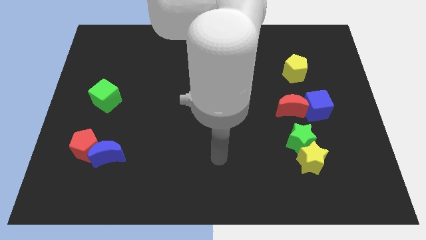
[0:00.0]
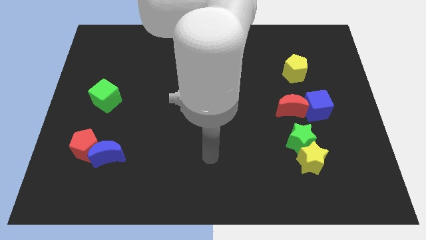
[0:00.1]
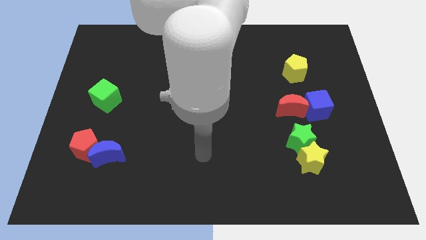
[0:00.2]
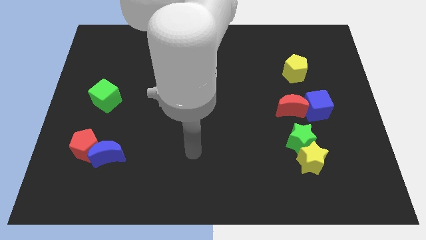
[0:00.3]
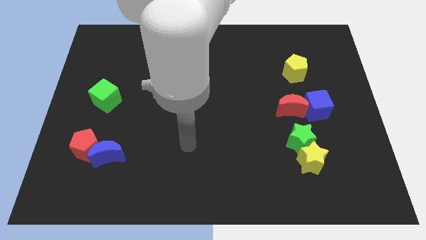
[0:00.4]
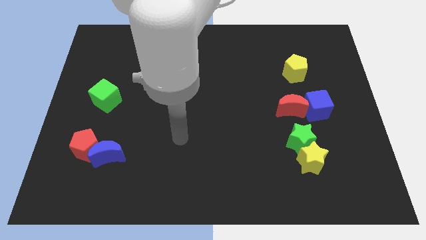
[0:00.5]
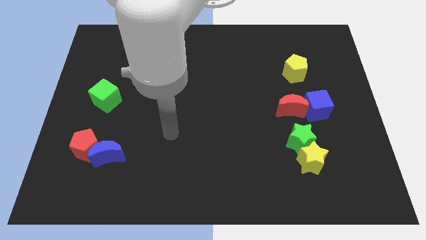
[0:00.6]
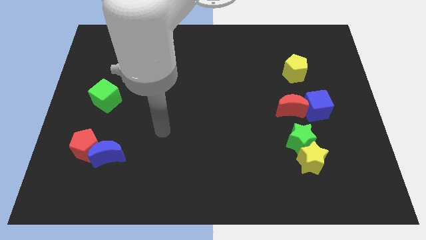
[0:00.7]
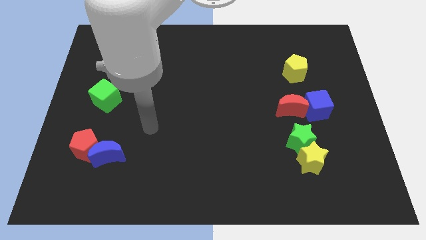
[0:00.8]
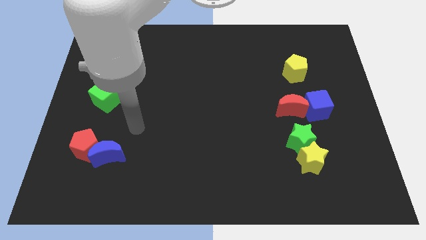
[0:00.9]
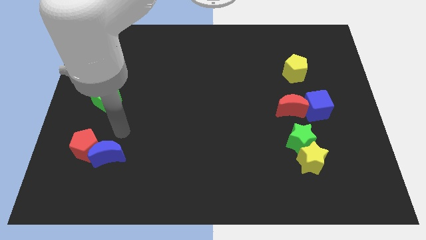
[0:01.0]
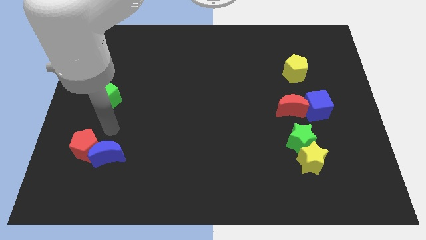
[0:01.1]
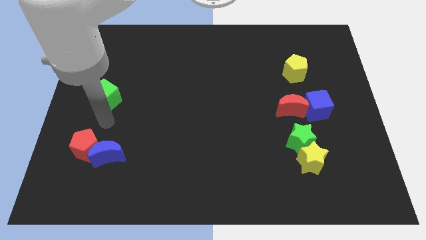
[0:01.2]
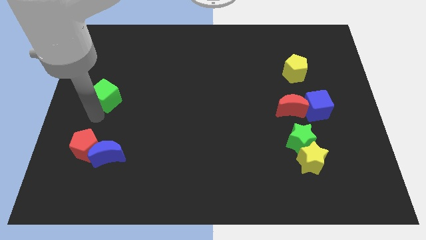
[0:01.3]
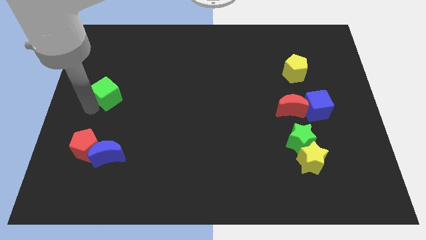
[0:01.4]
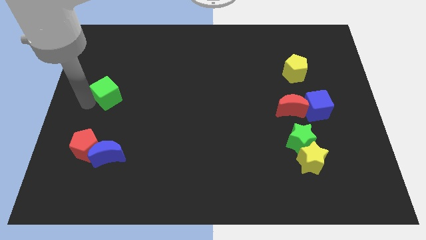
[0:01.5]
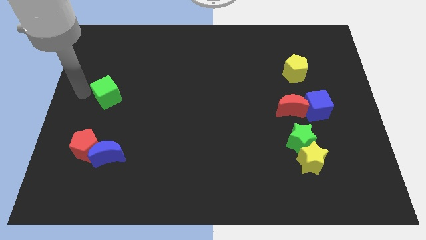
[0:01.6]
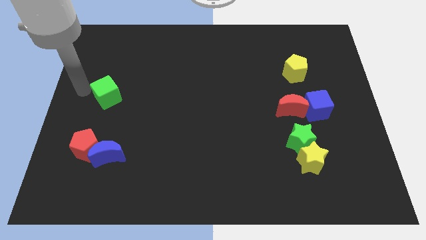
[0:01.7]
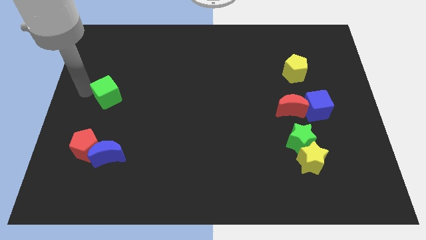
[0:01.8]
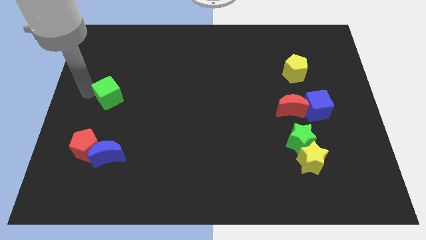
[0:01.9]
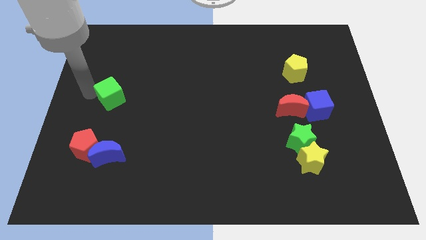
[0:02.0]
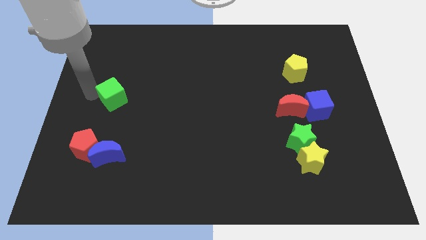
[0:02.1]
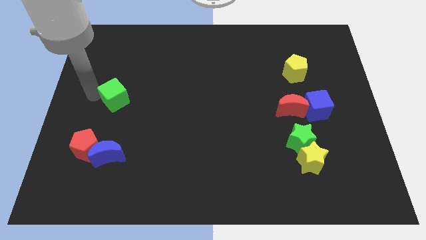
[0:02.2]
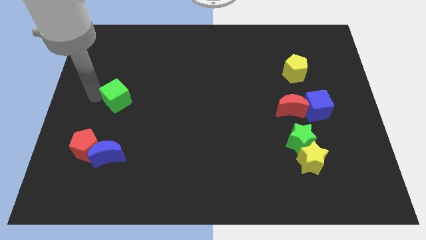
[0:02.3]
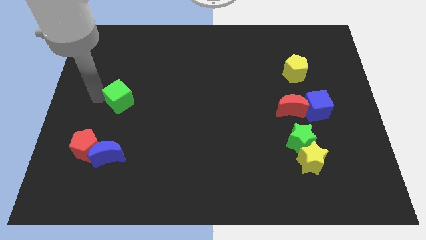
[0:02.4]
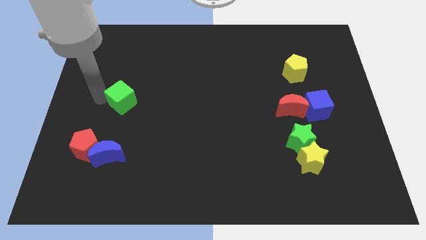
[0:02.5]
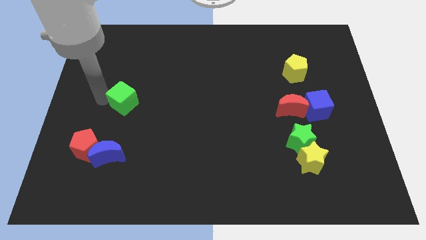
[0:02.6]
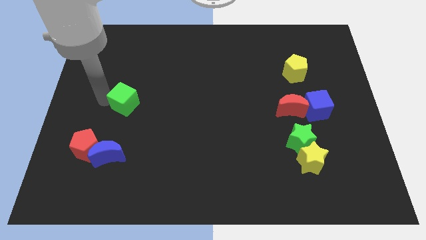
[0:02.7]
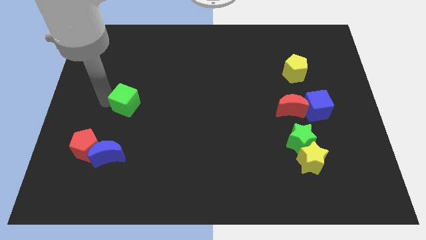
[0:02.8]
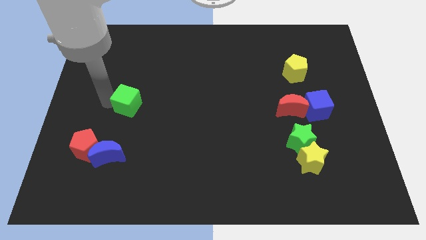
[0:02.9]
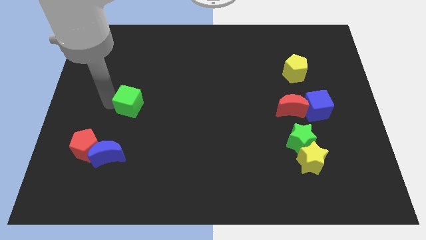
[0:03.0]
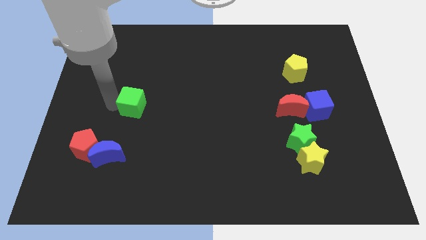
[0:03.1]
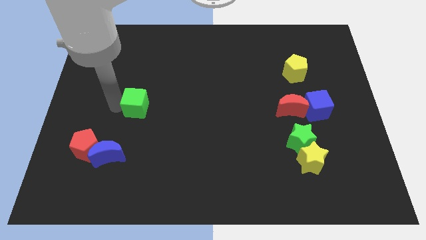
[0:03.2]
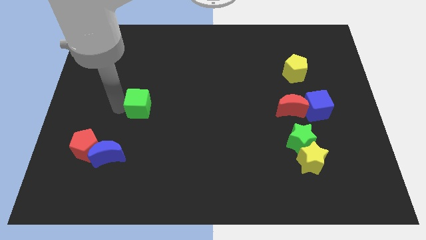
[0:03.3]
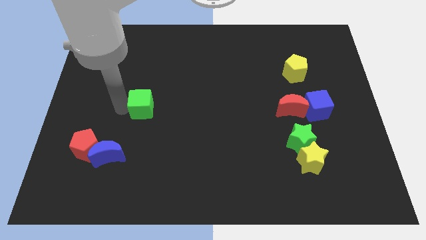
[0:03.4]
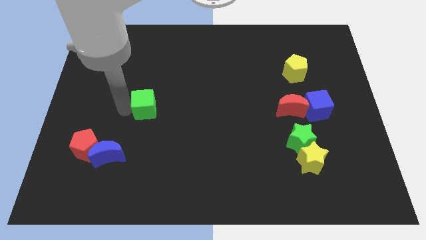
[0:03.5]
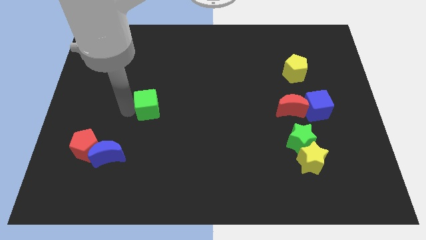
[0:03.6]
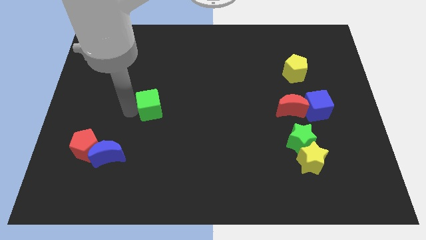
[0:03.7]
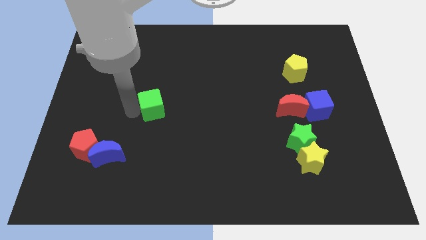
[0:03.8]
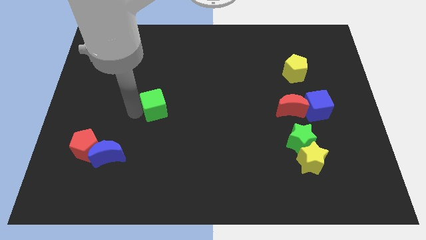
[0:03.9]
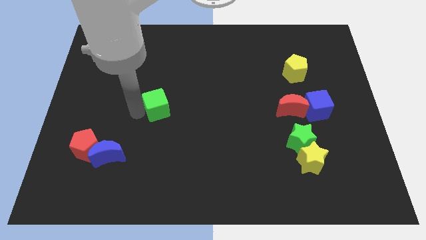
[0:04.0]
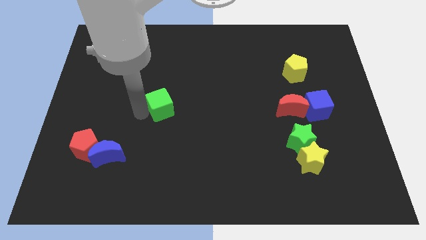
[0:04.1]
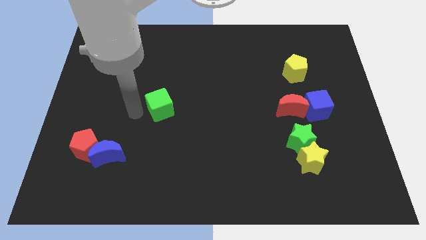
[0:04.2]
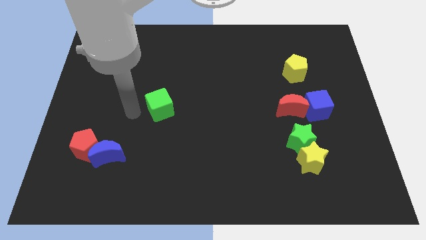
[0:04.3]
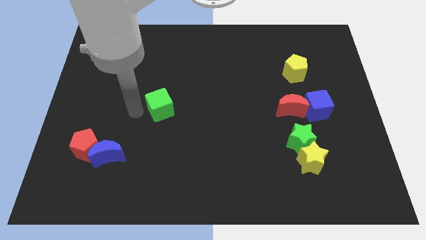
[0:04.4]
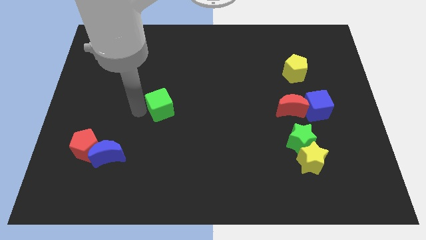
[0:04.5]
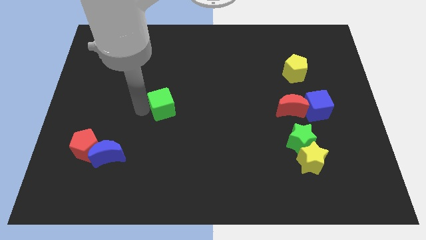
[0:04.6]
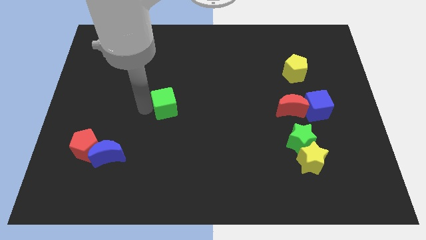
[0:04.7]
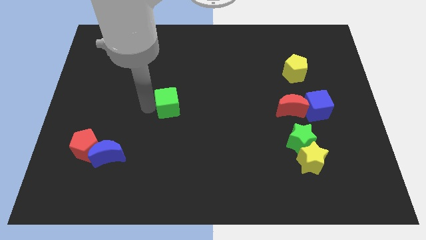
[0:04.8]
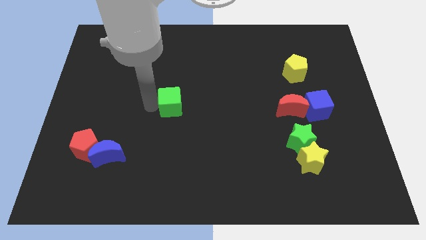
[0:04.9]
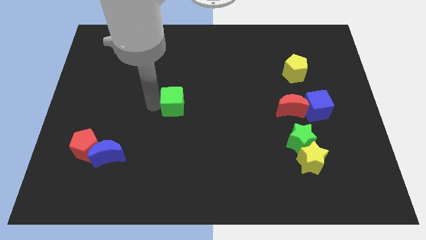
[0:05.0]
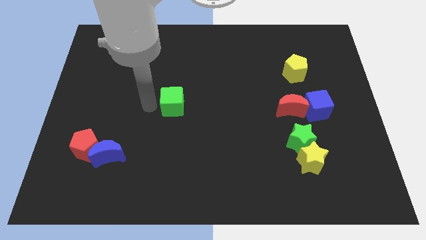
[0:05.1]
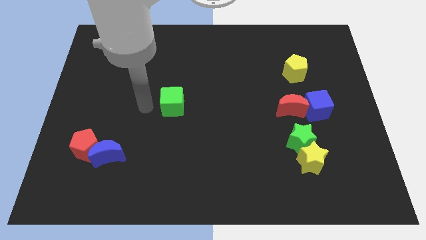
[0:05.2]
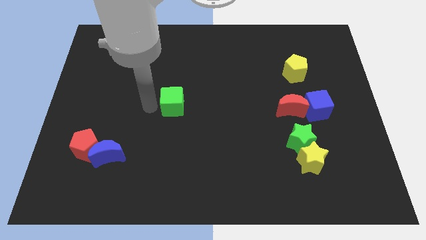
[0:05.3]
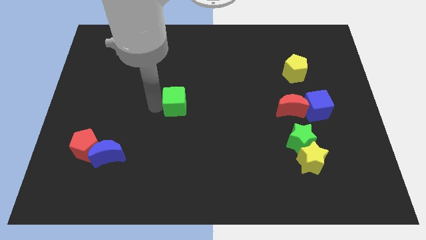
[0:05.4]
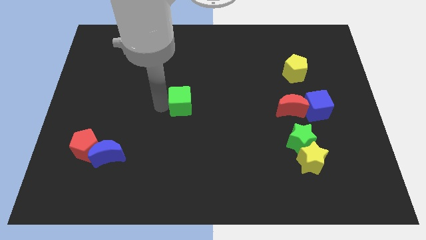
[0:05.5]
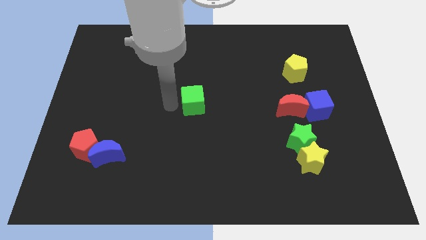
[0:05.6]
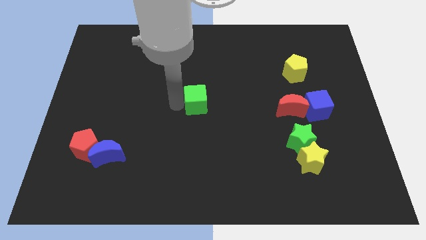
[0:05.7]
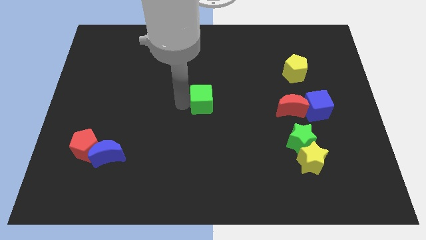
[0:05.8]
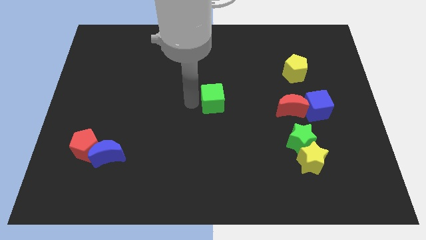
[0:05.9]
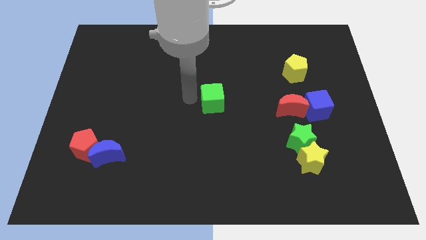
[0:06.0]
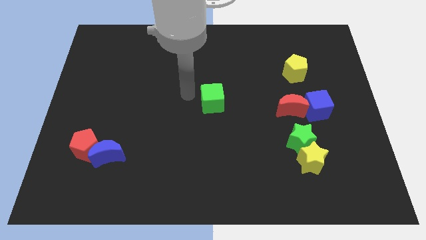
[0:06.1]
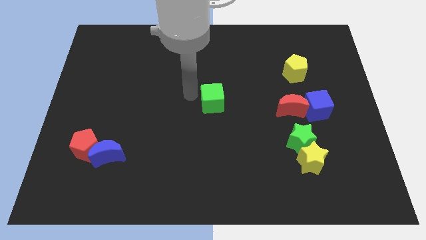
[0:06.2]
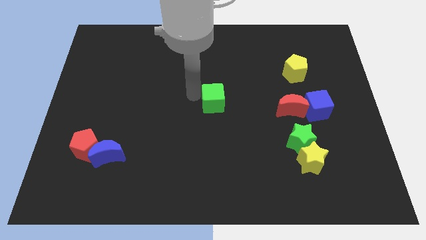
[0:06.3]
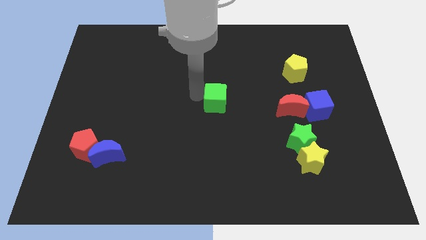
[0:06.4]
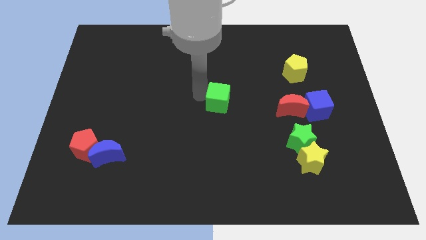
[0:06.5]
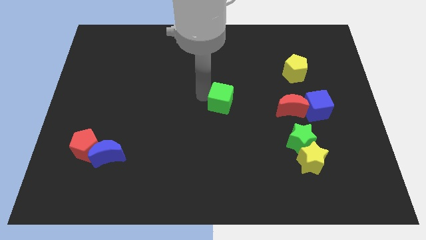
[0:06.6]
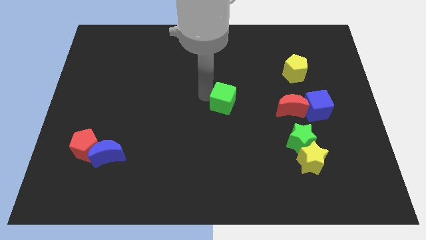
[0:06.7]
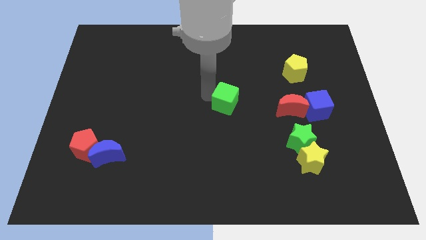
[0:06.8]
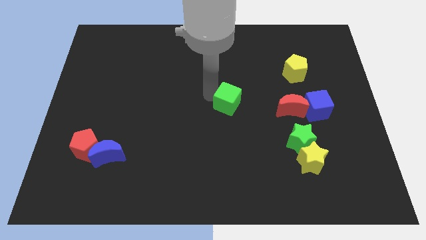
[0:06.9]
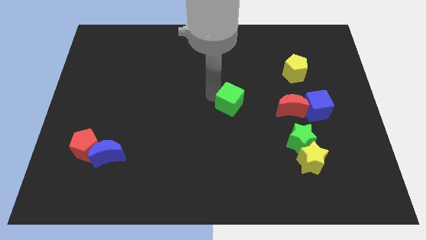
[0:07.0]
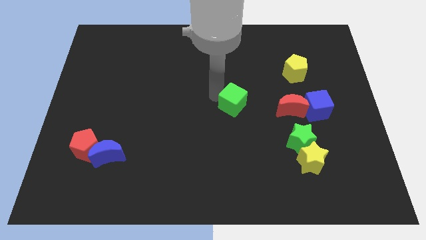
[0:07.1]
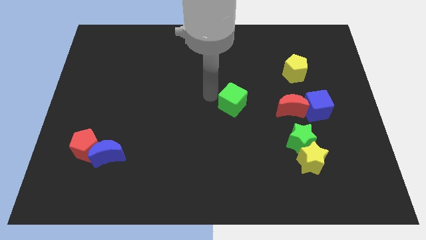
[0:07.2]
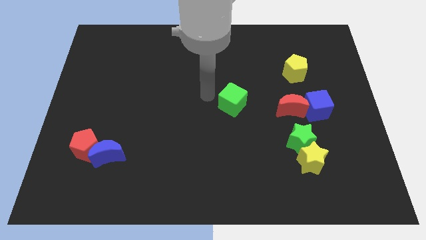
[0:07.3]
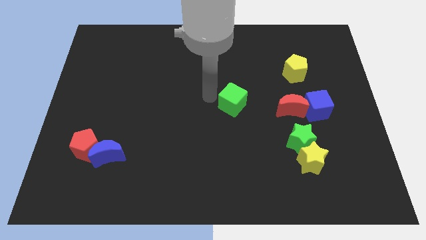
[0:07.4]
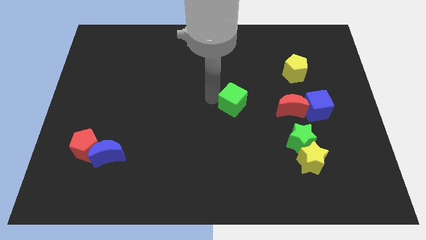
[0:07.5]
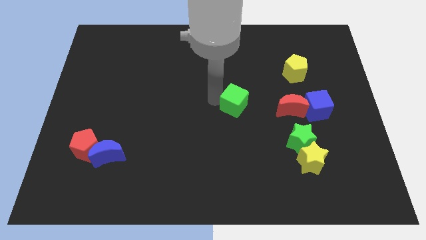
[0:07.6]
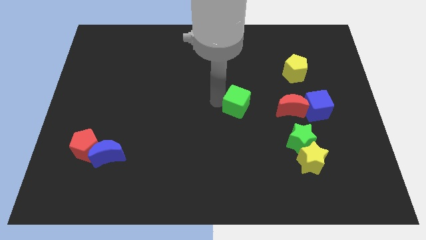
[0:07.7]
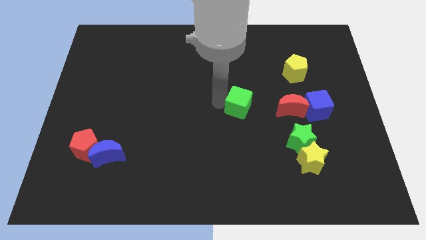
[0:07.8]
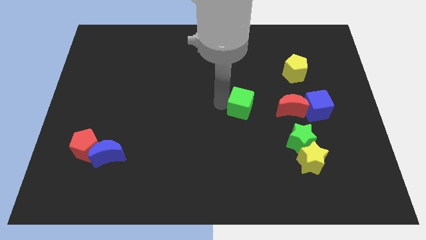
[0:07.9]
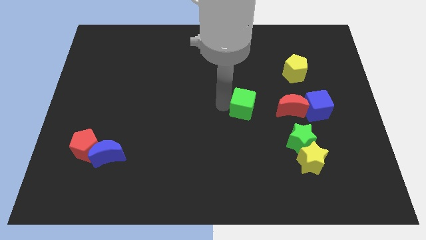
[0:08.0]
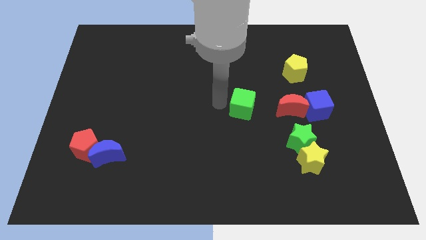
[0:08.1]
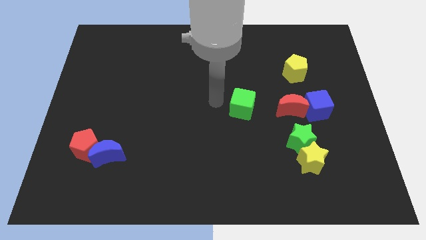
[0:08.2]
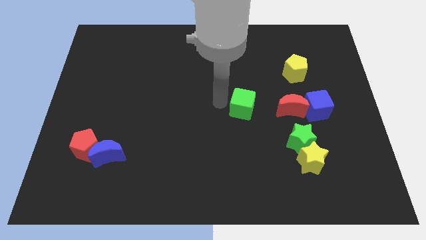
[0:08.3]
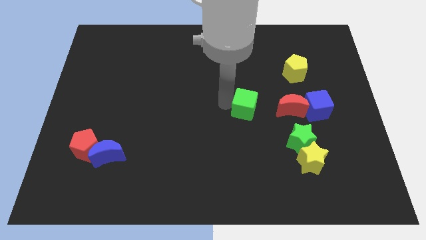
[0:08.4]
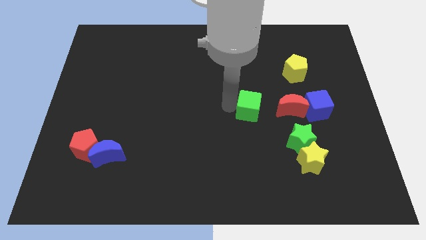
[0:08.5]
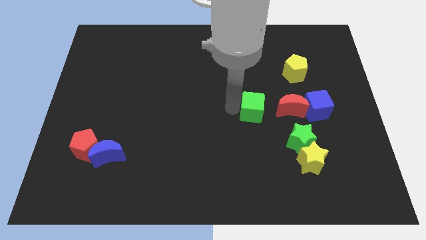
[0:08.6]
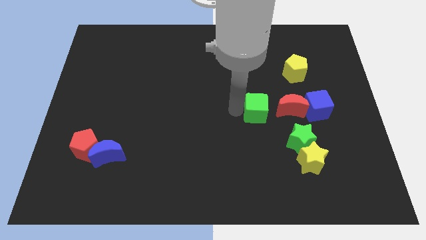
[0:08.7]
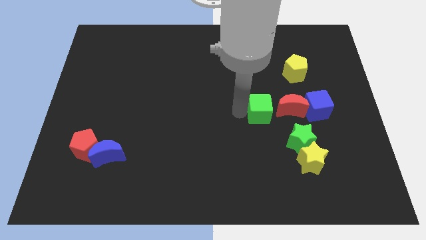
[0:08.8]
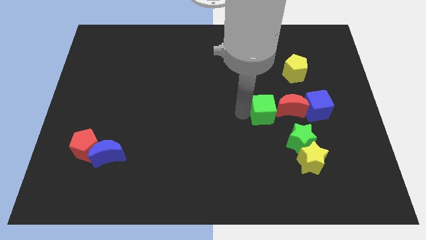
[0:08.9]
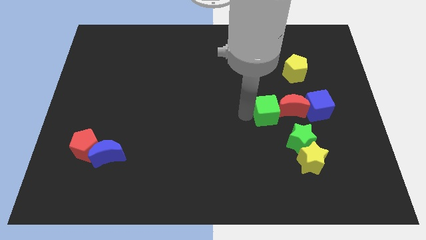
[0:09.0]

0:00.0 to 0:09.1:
slide the green cube next to the red moon
